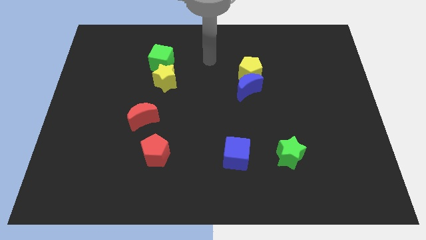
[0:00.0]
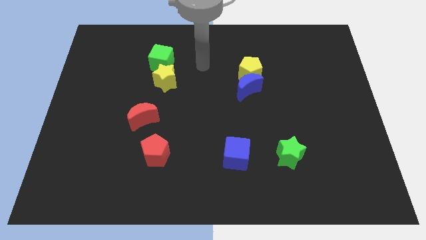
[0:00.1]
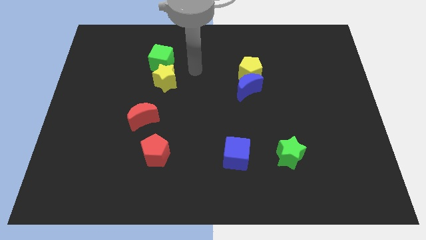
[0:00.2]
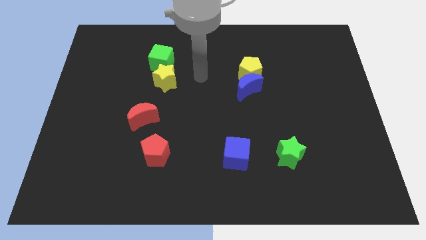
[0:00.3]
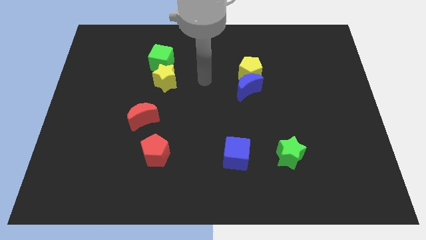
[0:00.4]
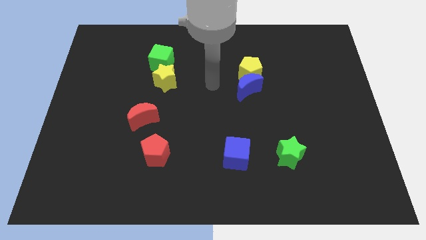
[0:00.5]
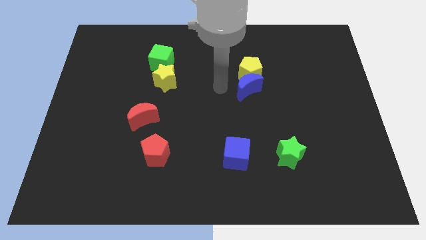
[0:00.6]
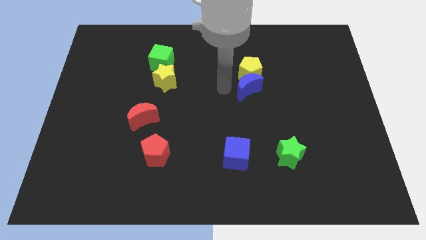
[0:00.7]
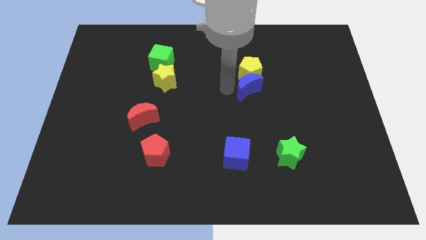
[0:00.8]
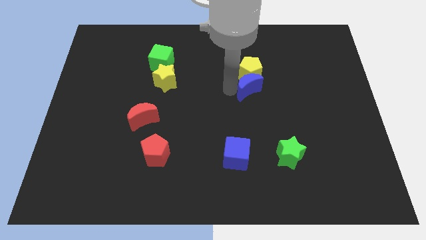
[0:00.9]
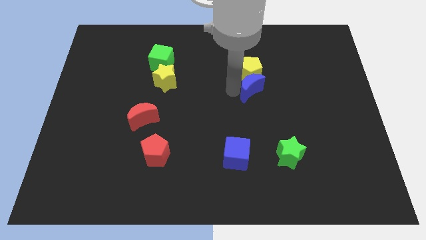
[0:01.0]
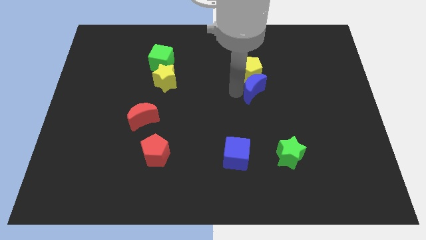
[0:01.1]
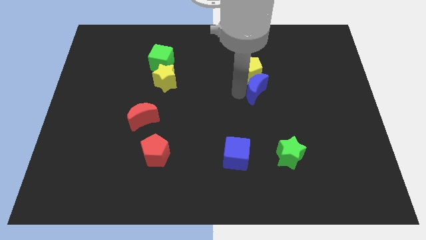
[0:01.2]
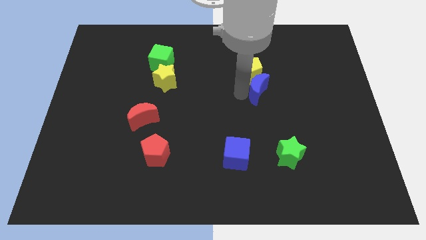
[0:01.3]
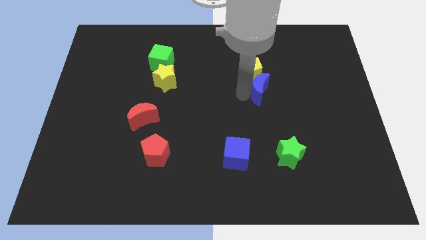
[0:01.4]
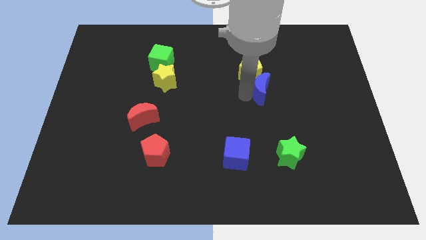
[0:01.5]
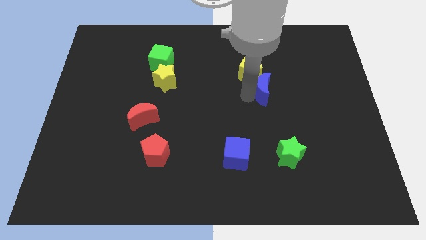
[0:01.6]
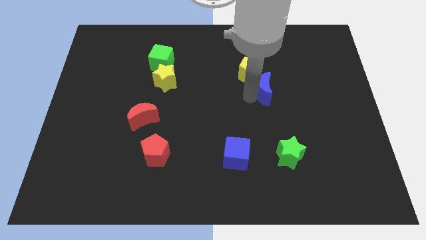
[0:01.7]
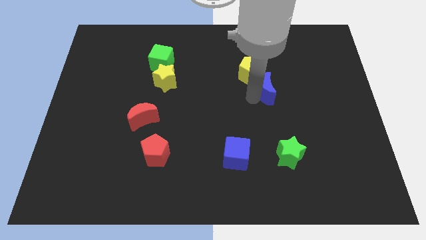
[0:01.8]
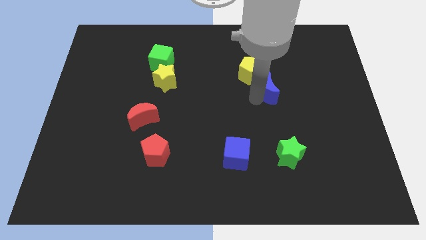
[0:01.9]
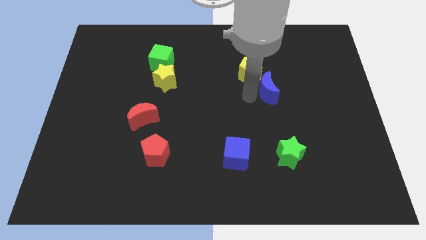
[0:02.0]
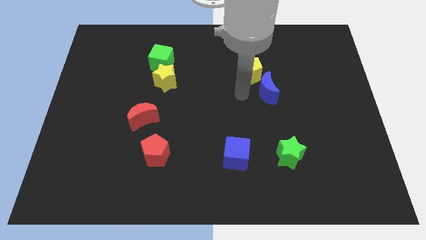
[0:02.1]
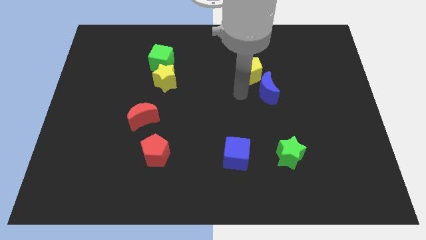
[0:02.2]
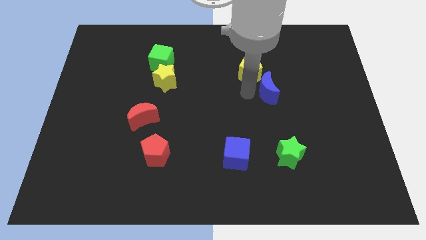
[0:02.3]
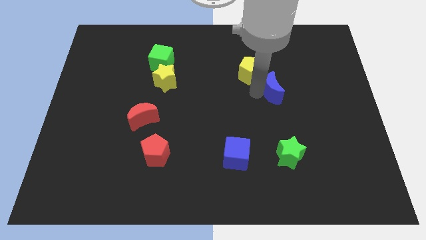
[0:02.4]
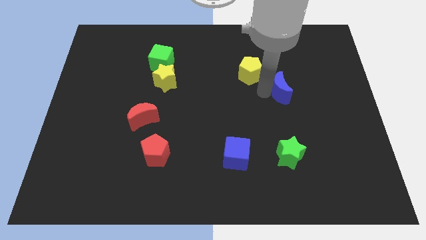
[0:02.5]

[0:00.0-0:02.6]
push the blue moon a little bit right

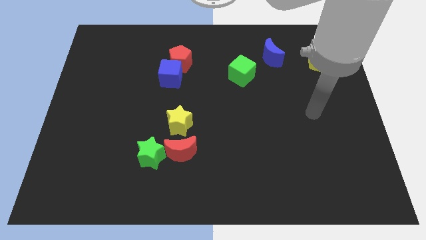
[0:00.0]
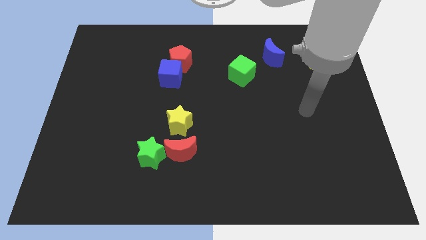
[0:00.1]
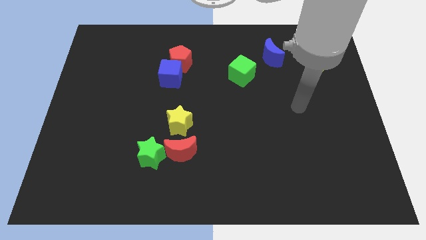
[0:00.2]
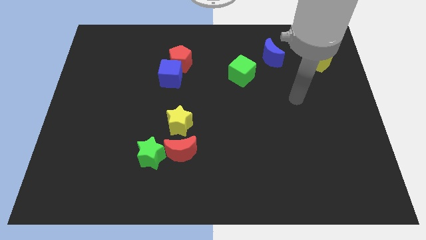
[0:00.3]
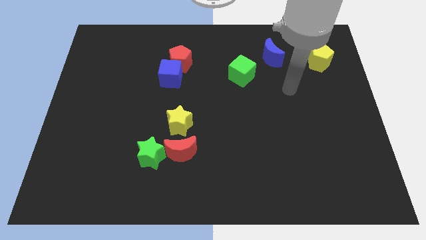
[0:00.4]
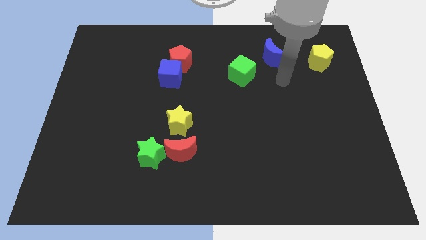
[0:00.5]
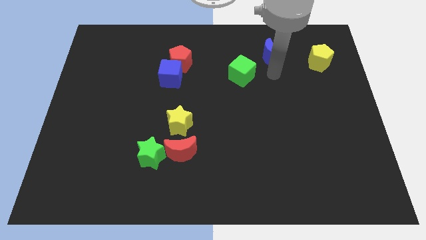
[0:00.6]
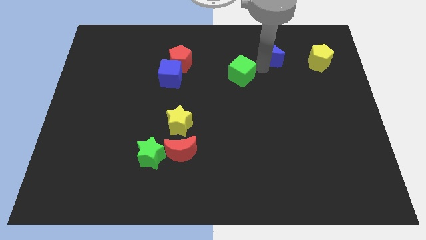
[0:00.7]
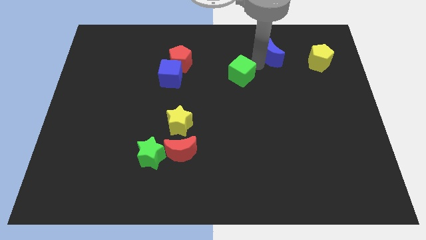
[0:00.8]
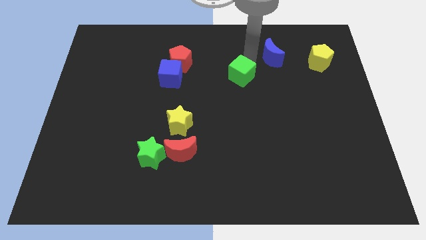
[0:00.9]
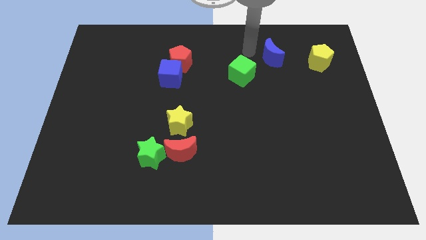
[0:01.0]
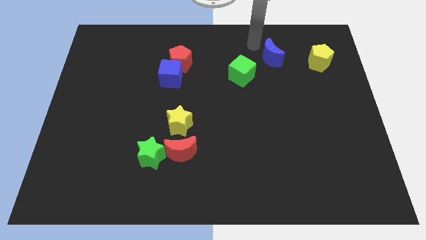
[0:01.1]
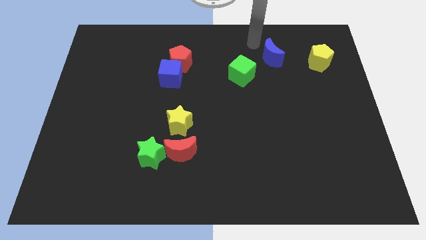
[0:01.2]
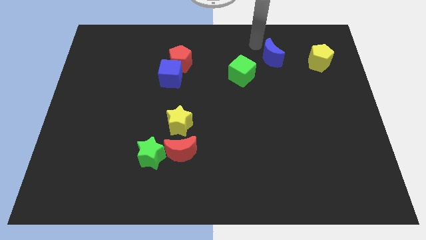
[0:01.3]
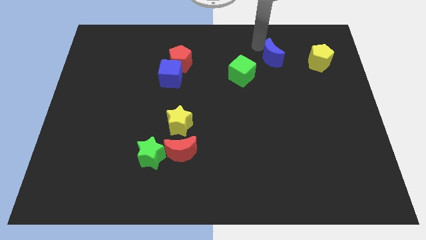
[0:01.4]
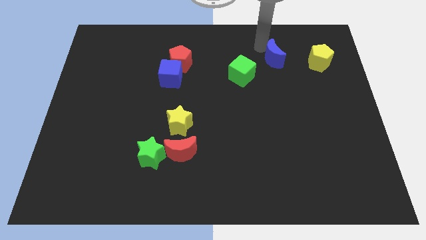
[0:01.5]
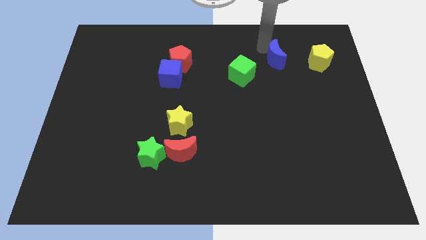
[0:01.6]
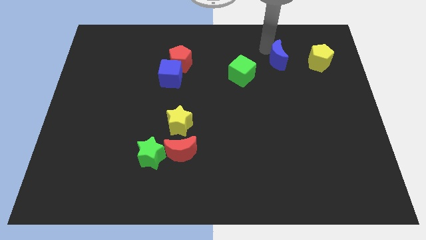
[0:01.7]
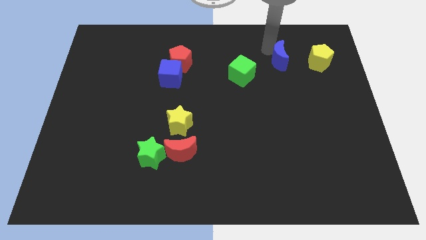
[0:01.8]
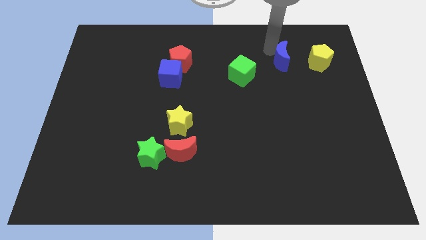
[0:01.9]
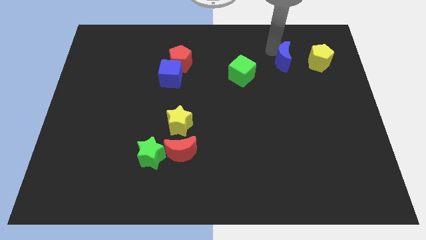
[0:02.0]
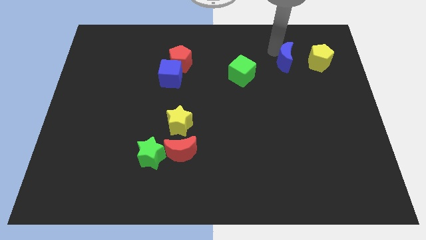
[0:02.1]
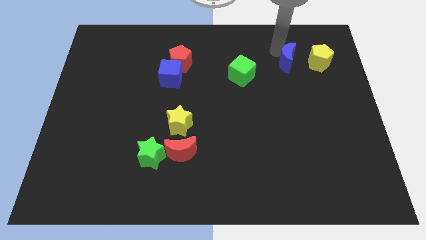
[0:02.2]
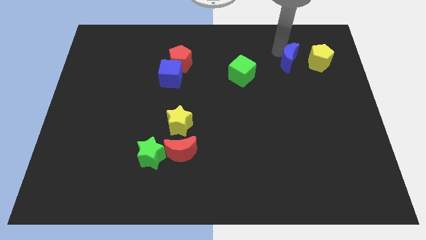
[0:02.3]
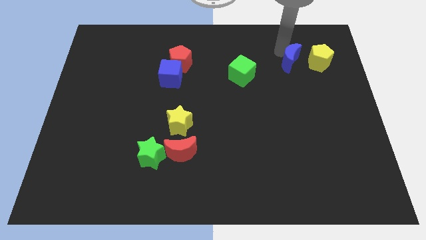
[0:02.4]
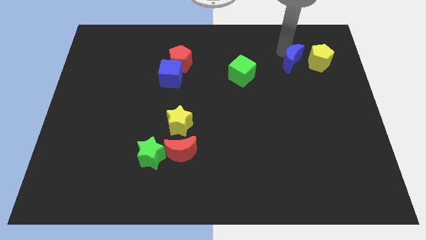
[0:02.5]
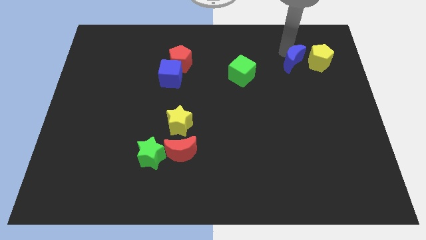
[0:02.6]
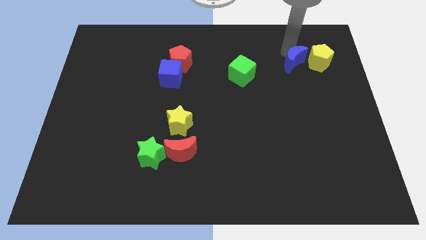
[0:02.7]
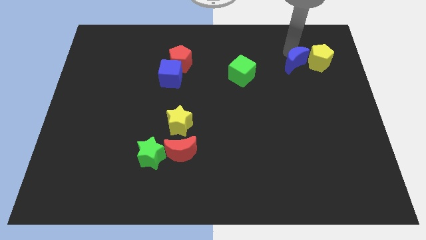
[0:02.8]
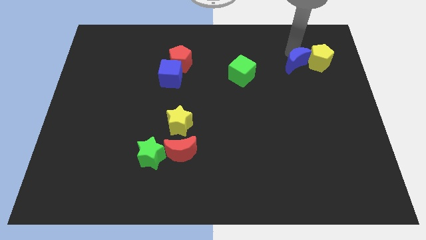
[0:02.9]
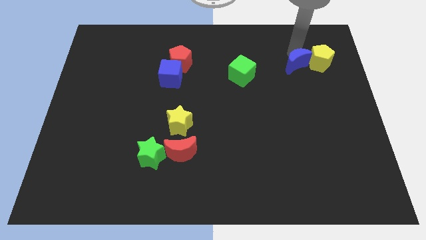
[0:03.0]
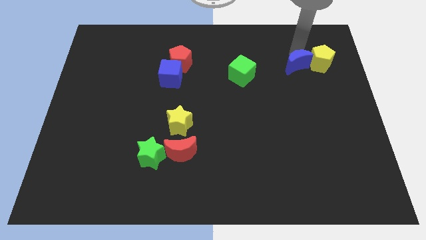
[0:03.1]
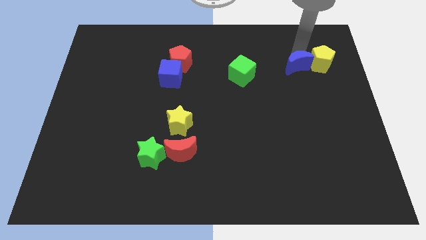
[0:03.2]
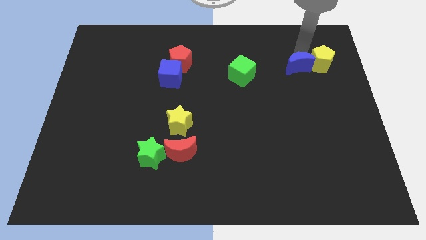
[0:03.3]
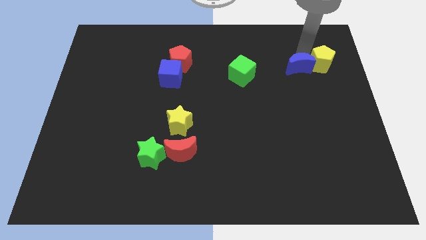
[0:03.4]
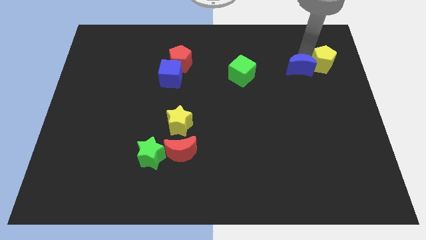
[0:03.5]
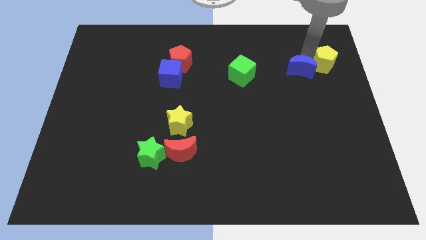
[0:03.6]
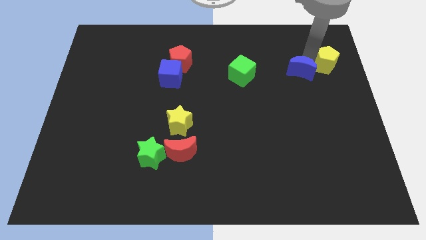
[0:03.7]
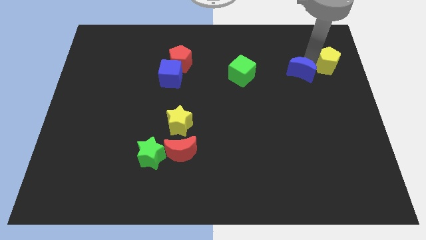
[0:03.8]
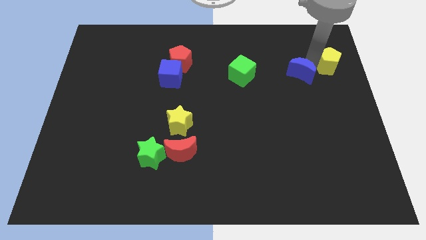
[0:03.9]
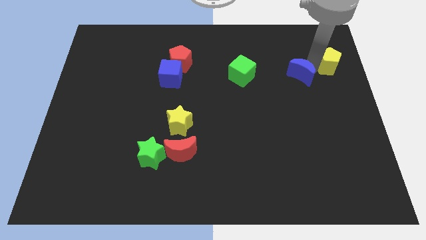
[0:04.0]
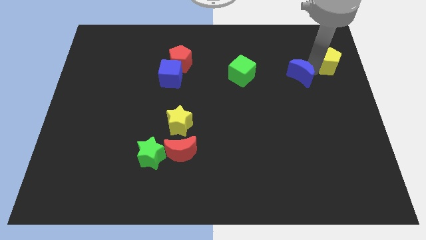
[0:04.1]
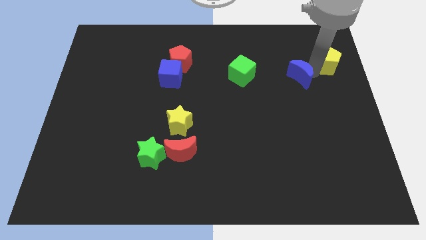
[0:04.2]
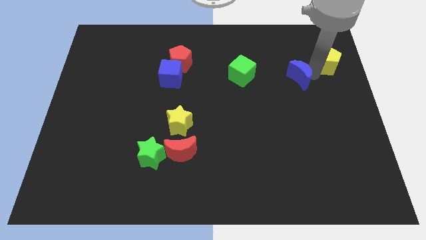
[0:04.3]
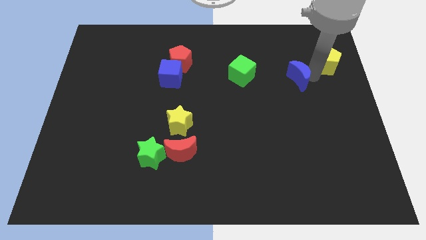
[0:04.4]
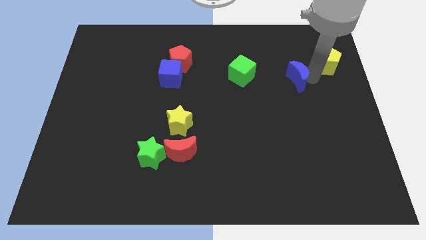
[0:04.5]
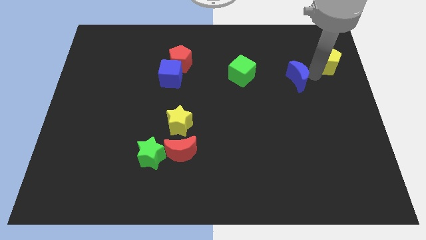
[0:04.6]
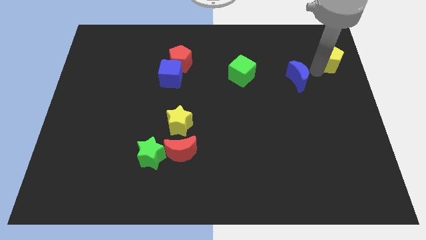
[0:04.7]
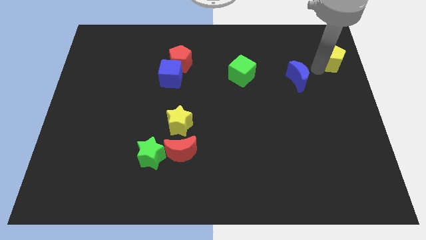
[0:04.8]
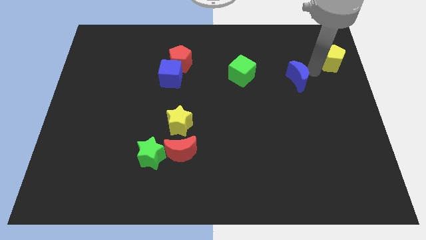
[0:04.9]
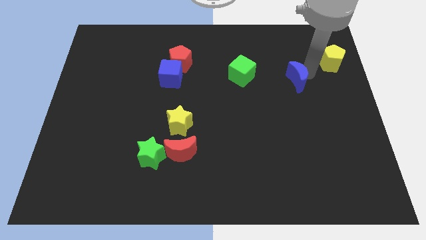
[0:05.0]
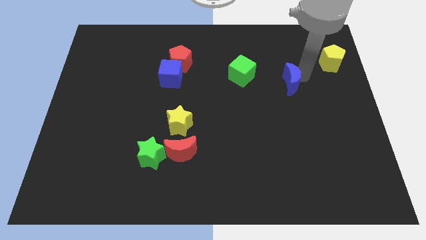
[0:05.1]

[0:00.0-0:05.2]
push the blue moon down a little bit
